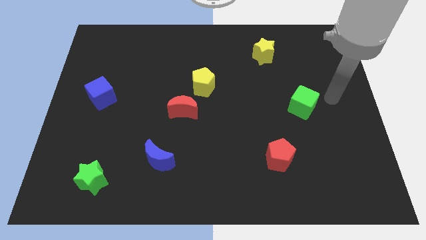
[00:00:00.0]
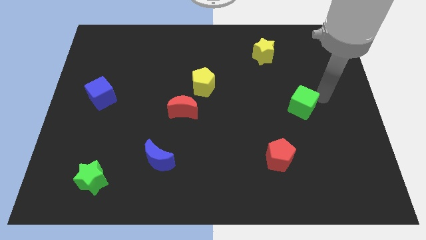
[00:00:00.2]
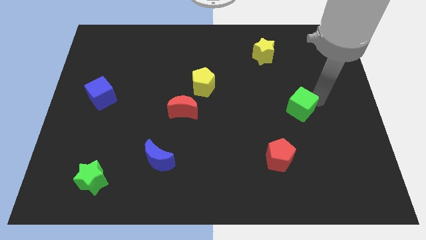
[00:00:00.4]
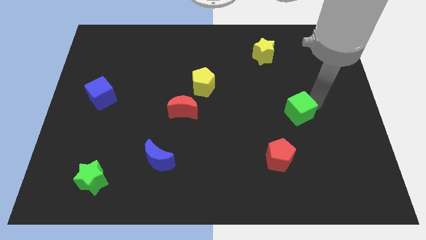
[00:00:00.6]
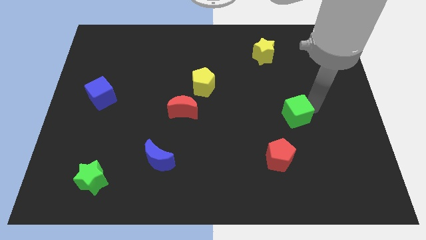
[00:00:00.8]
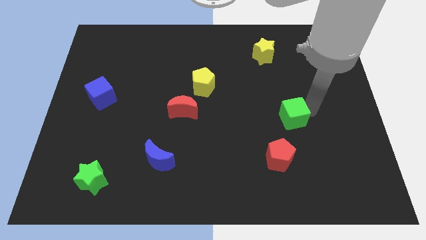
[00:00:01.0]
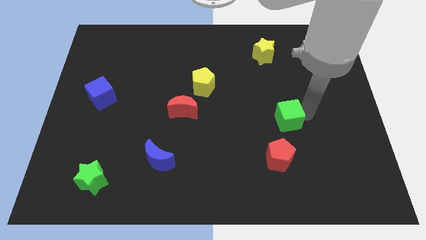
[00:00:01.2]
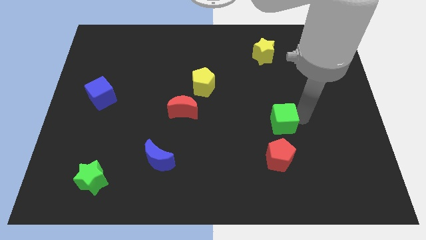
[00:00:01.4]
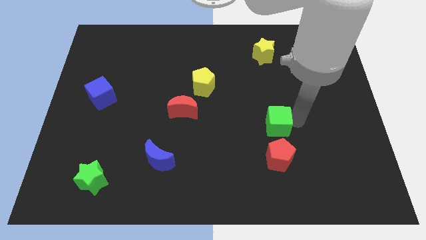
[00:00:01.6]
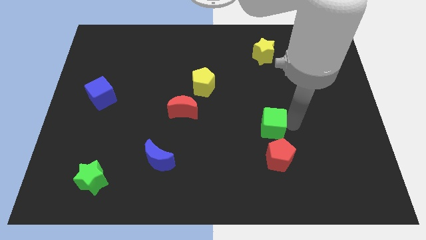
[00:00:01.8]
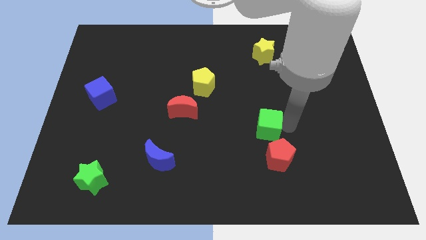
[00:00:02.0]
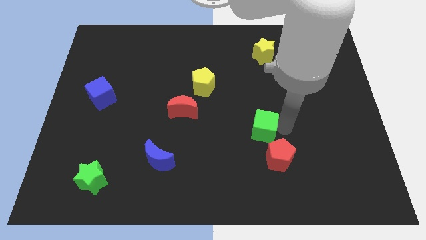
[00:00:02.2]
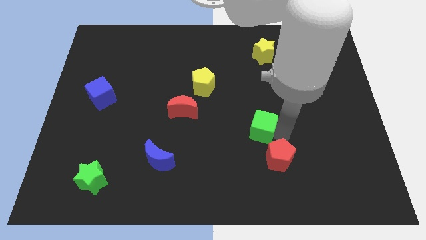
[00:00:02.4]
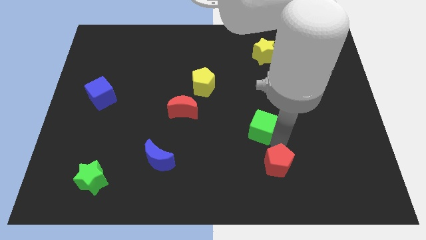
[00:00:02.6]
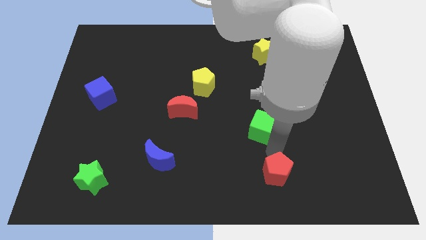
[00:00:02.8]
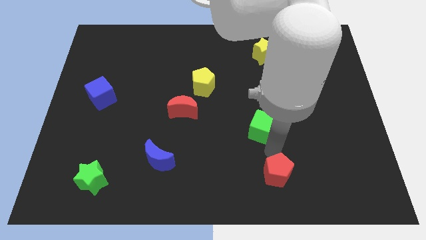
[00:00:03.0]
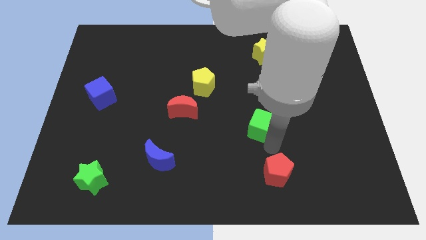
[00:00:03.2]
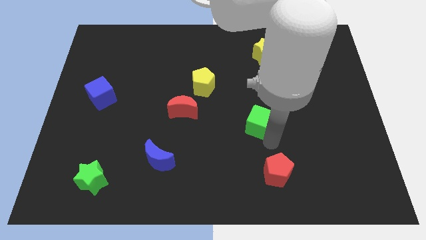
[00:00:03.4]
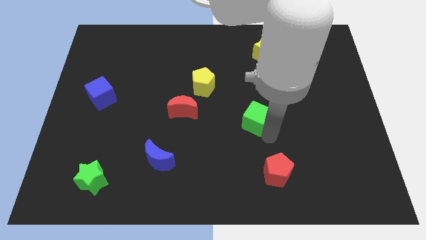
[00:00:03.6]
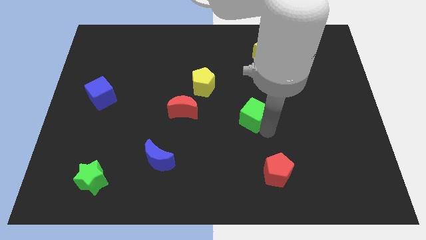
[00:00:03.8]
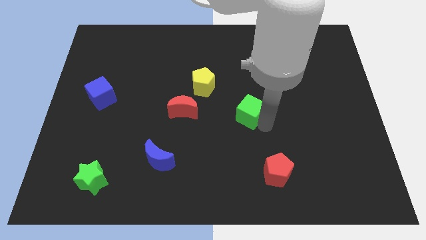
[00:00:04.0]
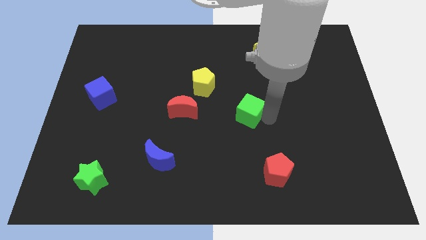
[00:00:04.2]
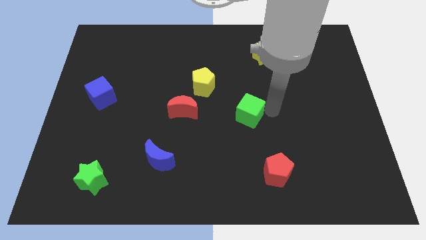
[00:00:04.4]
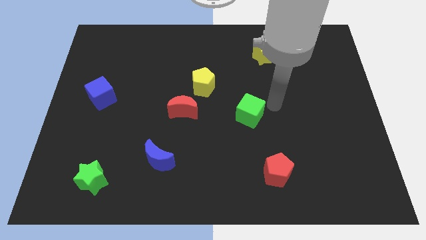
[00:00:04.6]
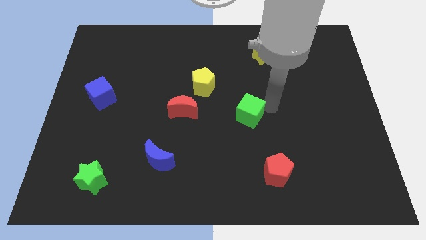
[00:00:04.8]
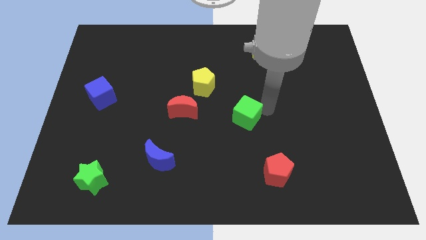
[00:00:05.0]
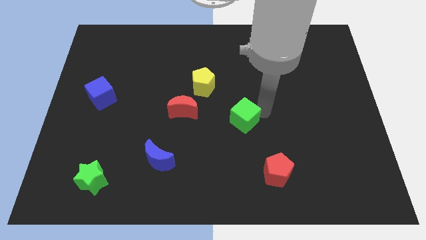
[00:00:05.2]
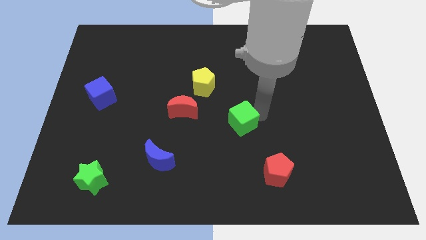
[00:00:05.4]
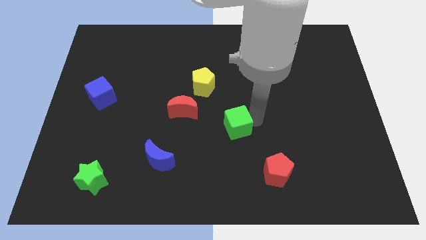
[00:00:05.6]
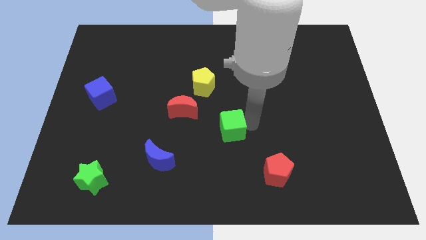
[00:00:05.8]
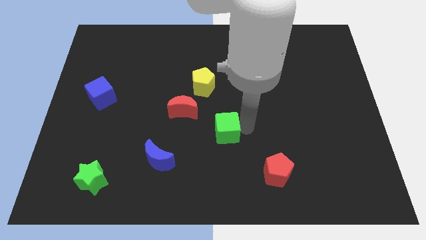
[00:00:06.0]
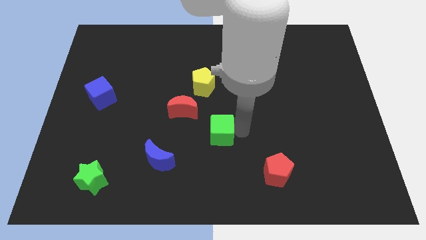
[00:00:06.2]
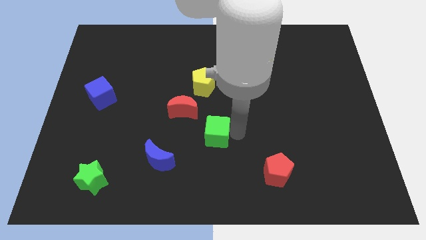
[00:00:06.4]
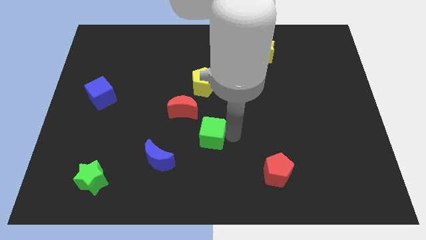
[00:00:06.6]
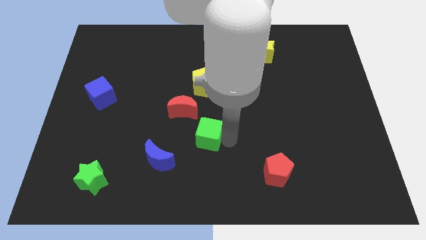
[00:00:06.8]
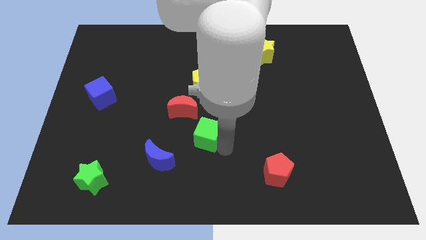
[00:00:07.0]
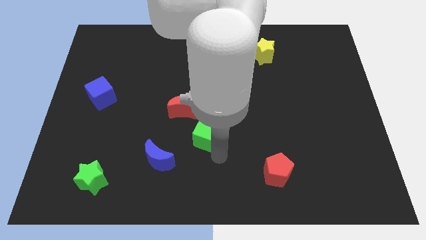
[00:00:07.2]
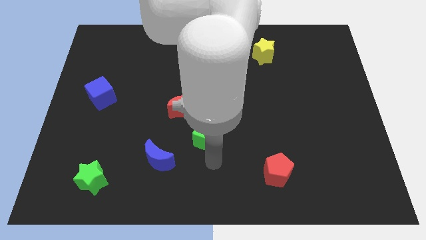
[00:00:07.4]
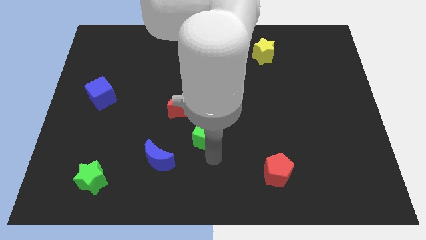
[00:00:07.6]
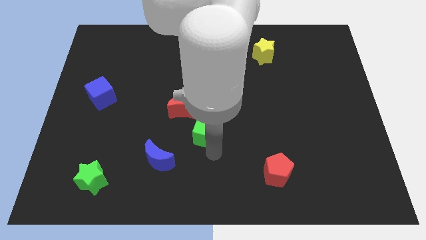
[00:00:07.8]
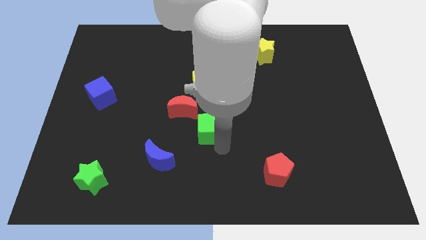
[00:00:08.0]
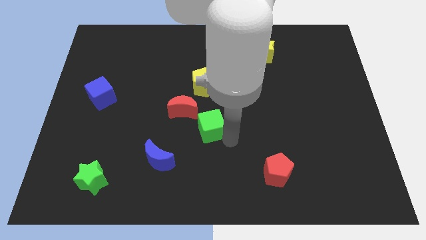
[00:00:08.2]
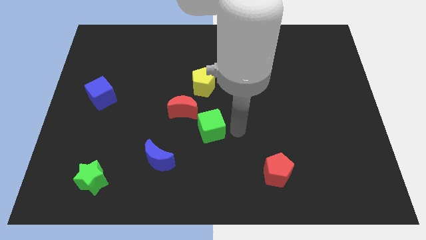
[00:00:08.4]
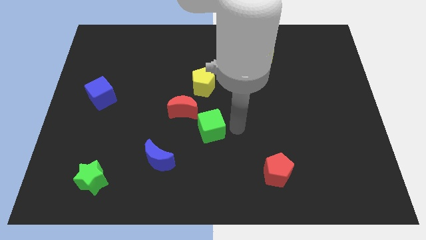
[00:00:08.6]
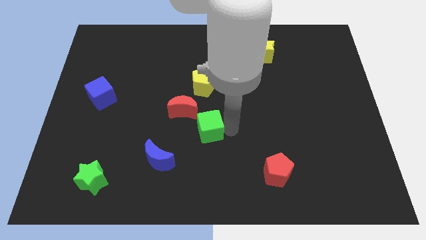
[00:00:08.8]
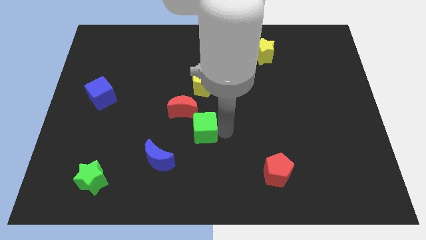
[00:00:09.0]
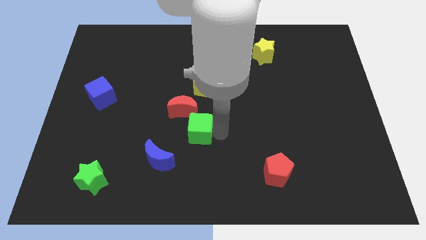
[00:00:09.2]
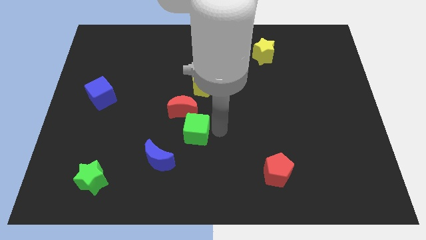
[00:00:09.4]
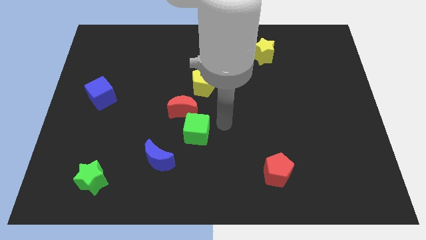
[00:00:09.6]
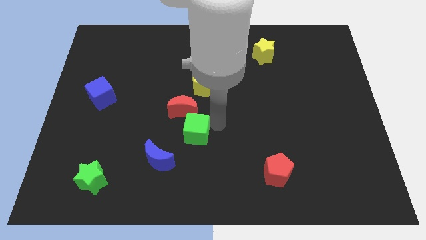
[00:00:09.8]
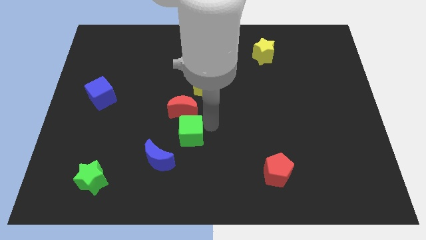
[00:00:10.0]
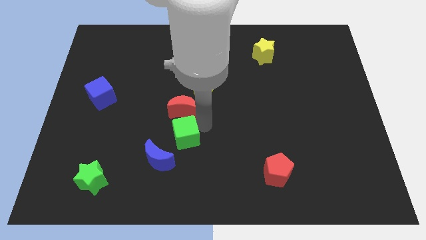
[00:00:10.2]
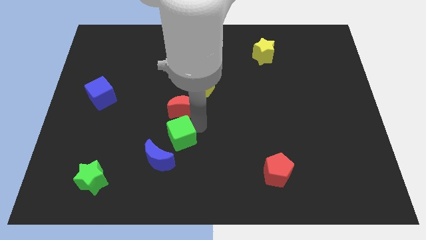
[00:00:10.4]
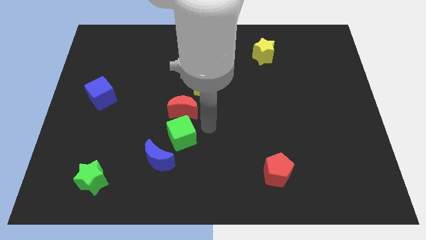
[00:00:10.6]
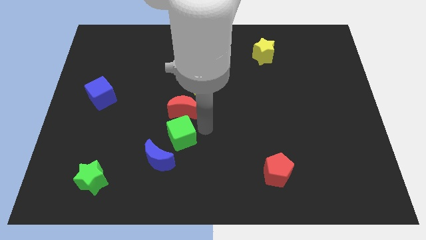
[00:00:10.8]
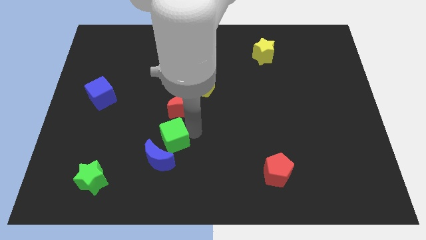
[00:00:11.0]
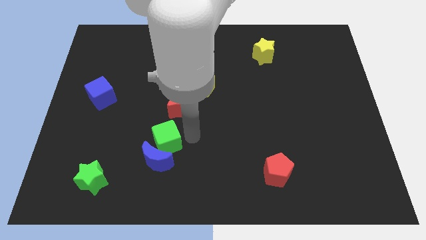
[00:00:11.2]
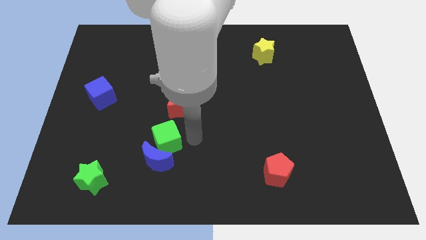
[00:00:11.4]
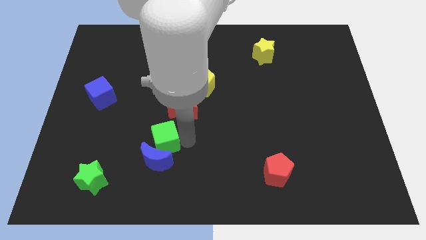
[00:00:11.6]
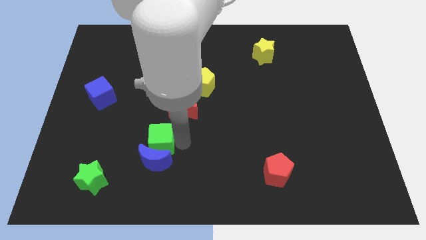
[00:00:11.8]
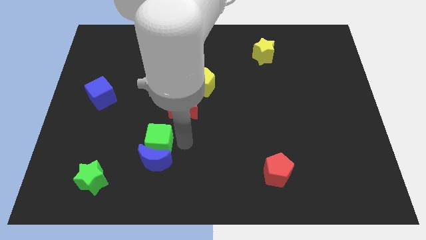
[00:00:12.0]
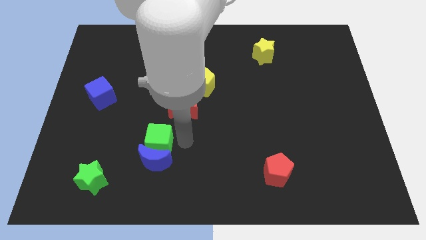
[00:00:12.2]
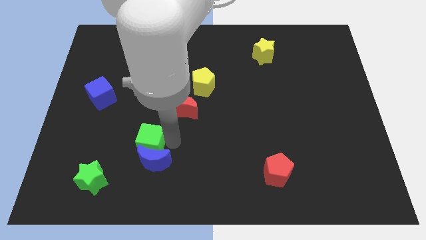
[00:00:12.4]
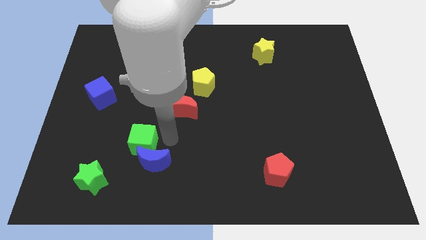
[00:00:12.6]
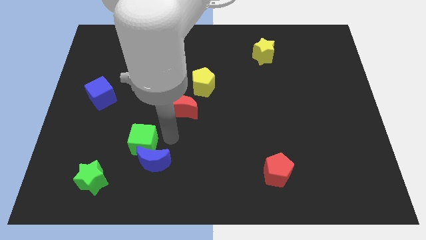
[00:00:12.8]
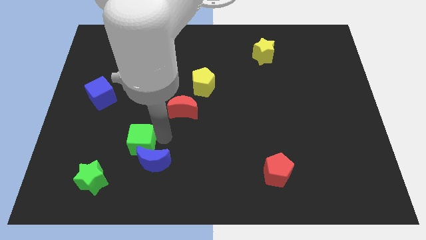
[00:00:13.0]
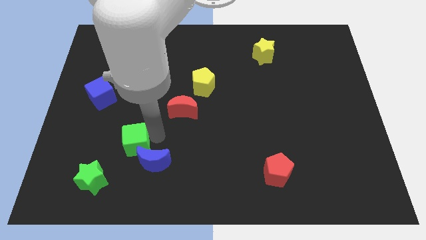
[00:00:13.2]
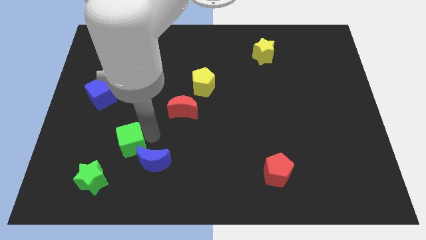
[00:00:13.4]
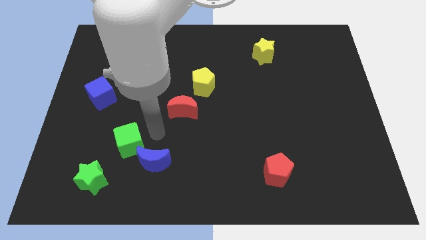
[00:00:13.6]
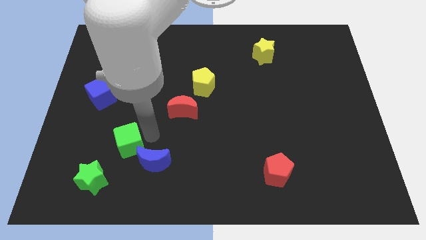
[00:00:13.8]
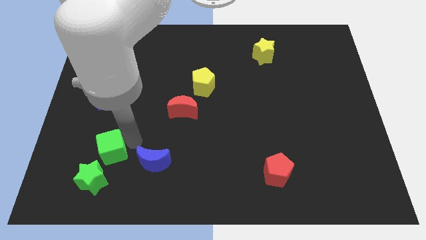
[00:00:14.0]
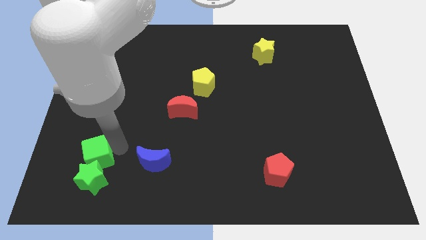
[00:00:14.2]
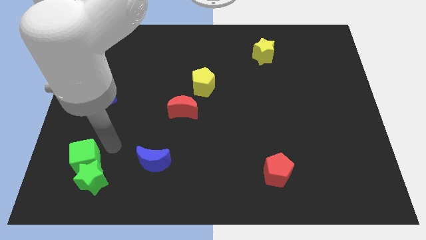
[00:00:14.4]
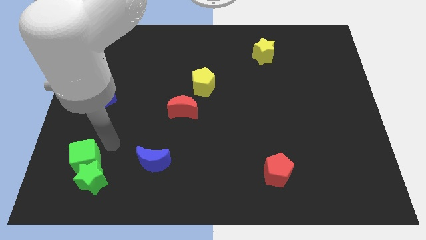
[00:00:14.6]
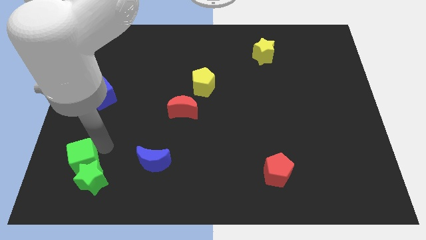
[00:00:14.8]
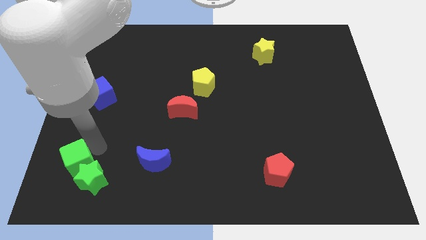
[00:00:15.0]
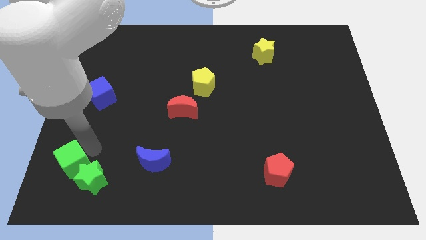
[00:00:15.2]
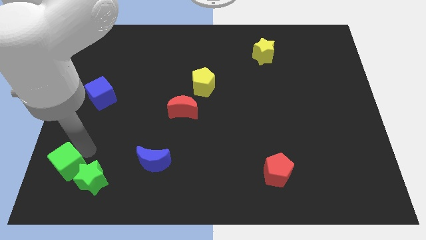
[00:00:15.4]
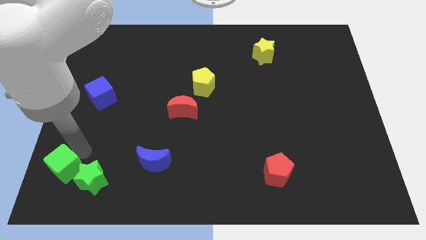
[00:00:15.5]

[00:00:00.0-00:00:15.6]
slide the green cube to the lower left corner
